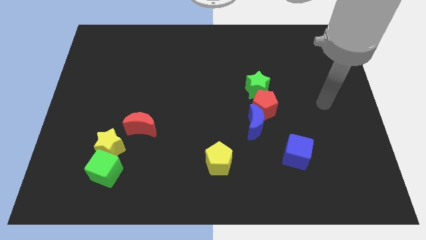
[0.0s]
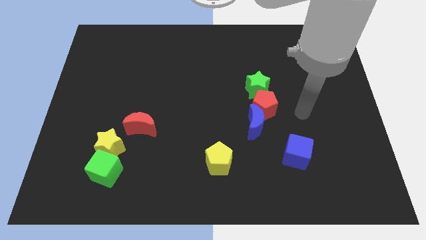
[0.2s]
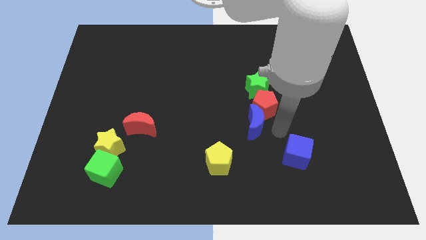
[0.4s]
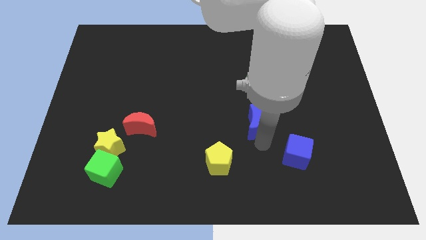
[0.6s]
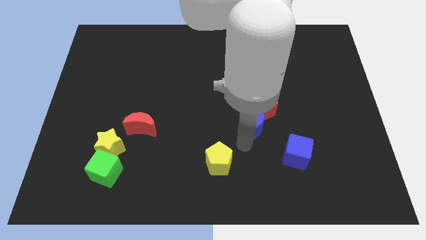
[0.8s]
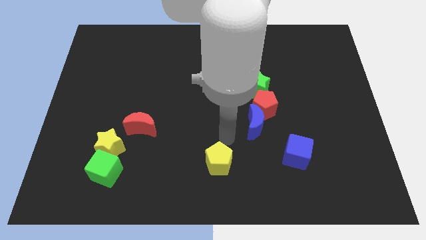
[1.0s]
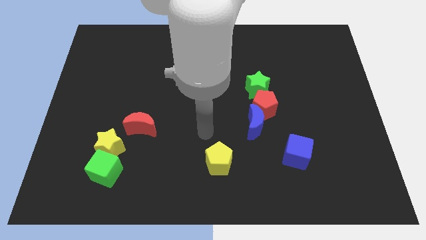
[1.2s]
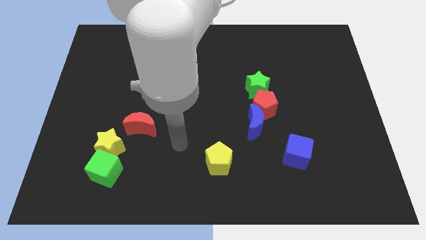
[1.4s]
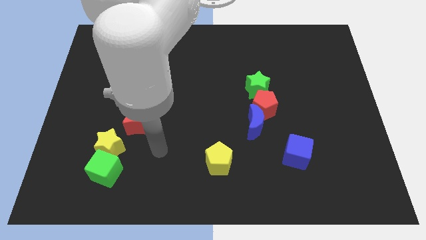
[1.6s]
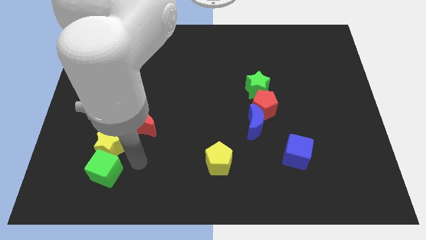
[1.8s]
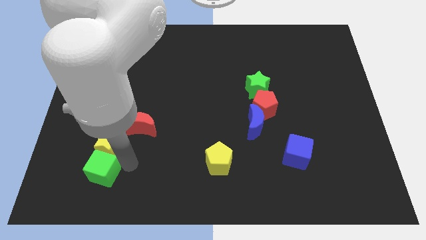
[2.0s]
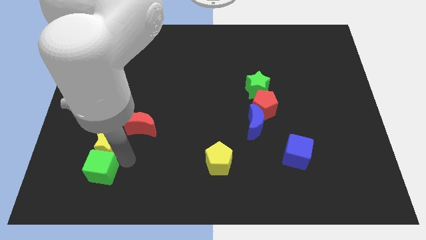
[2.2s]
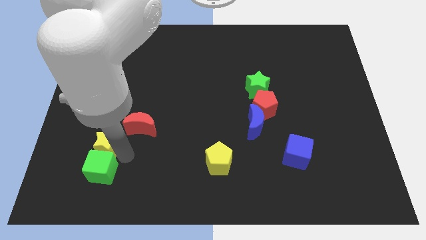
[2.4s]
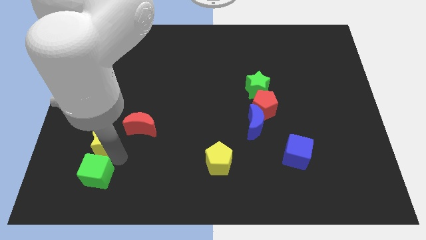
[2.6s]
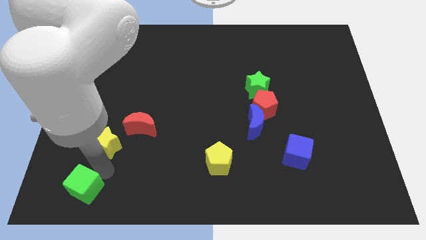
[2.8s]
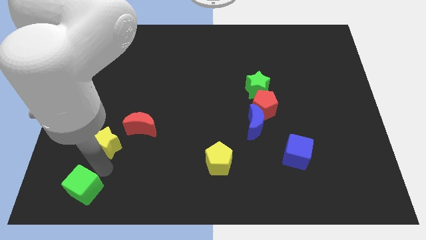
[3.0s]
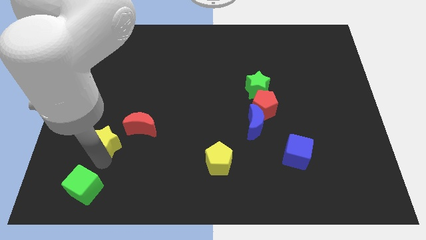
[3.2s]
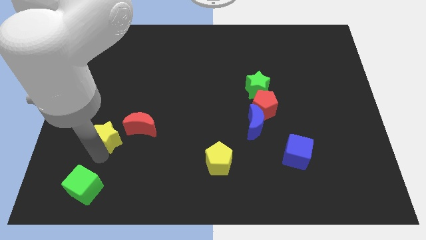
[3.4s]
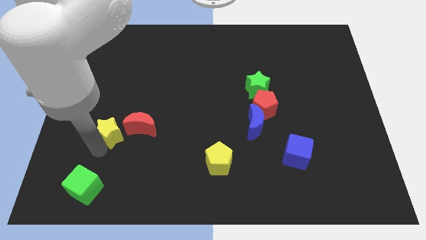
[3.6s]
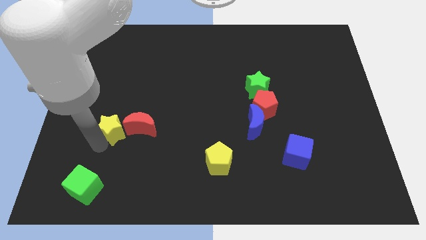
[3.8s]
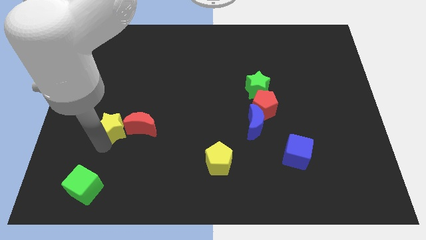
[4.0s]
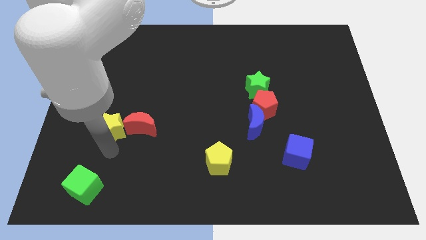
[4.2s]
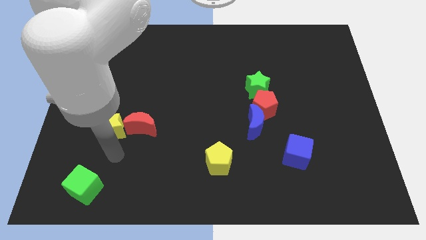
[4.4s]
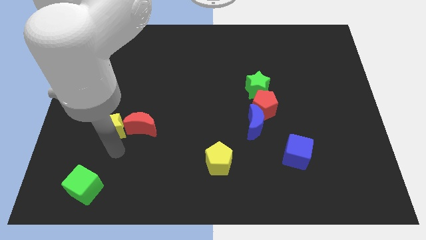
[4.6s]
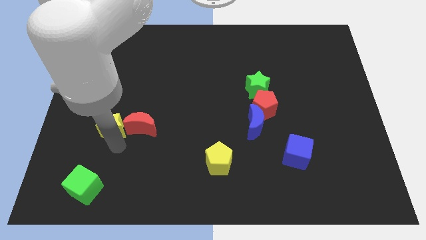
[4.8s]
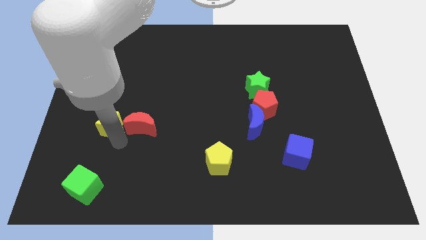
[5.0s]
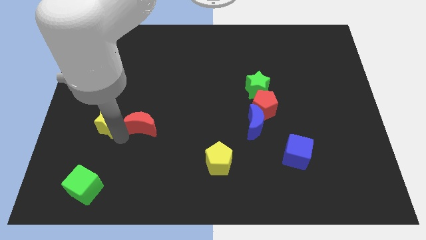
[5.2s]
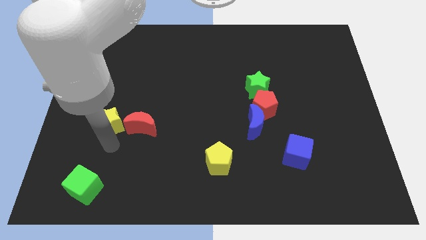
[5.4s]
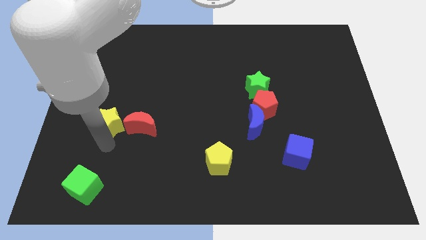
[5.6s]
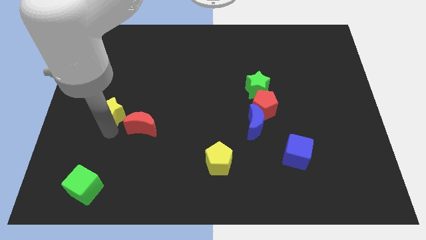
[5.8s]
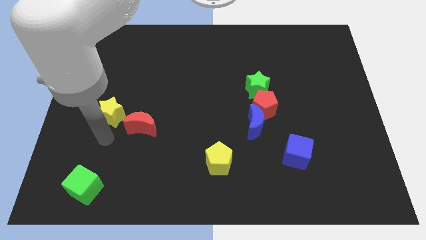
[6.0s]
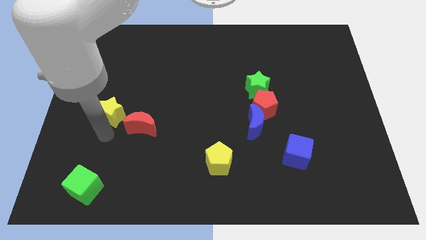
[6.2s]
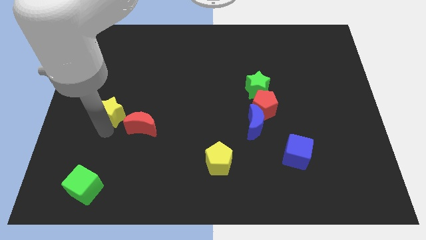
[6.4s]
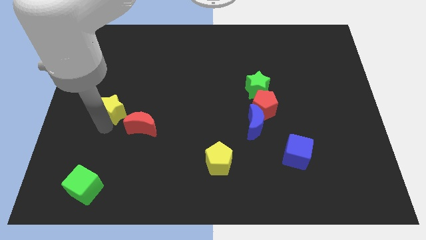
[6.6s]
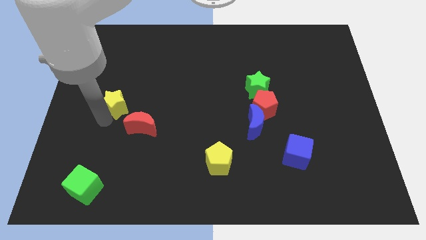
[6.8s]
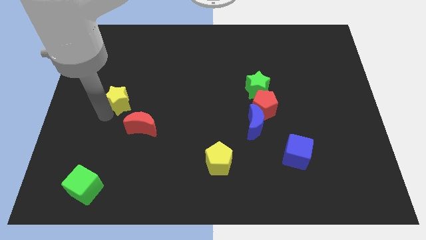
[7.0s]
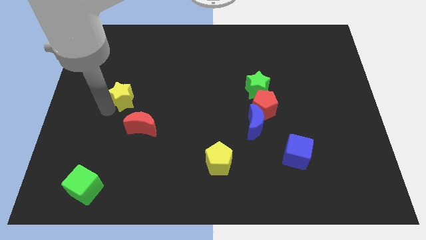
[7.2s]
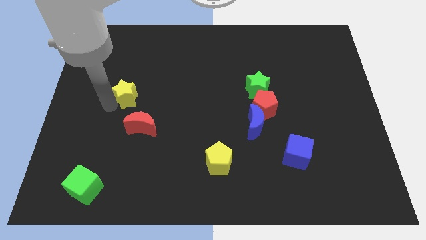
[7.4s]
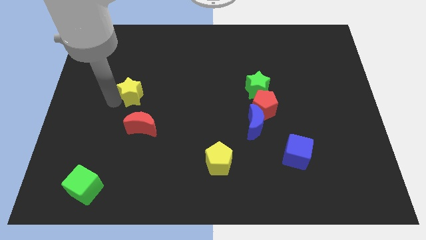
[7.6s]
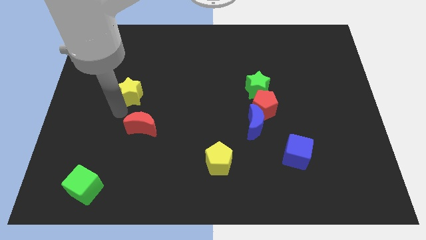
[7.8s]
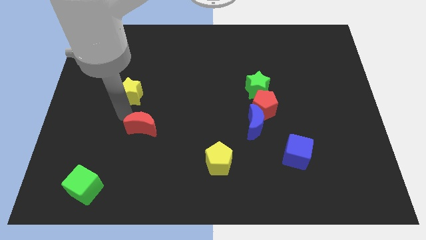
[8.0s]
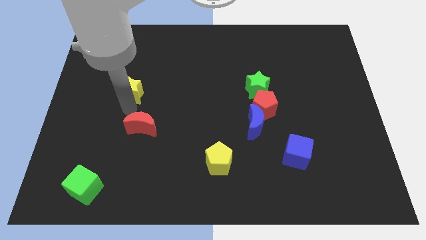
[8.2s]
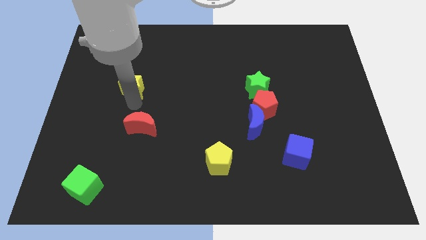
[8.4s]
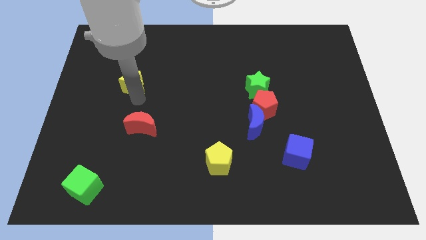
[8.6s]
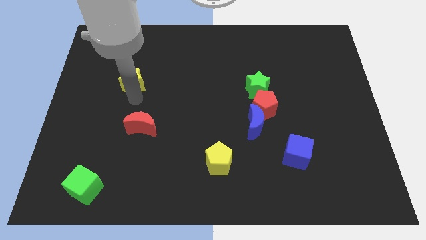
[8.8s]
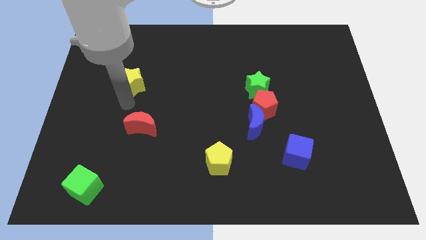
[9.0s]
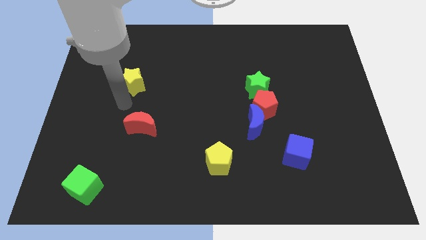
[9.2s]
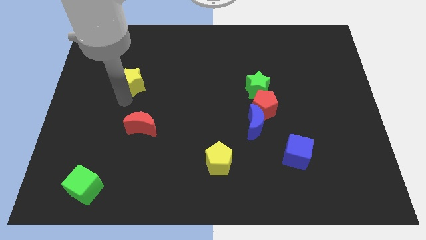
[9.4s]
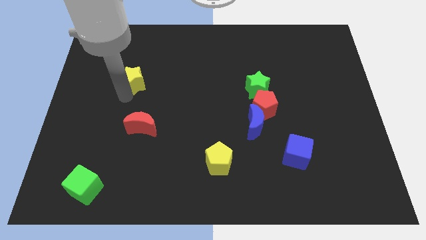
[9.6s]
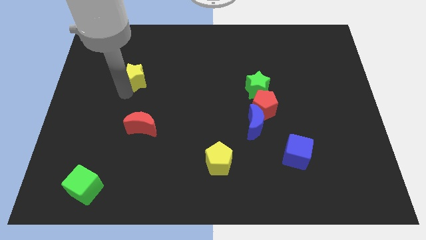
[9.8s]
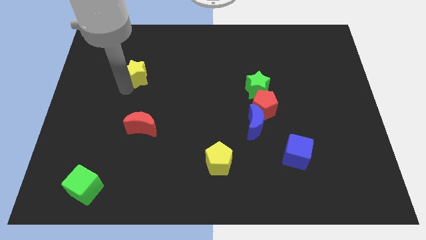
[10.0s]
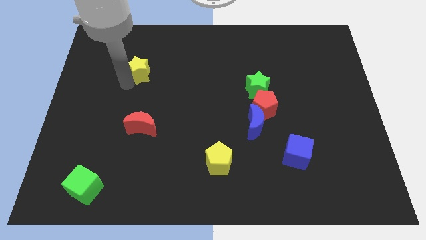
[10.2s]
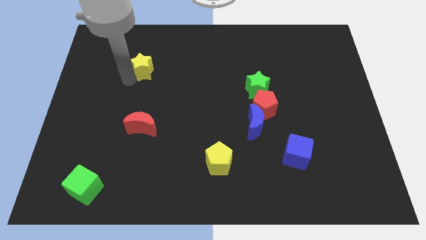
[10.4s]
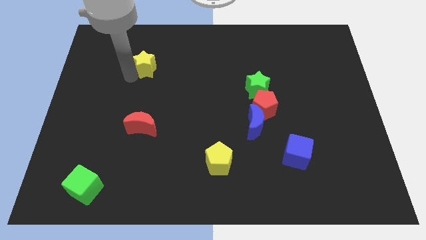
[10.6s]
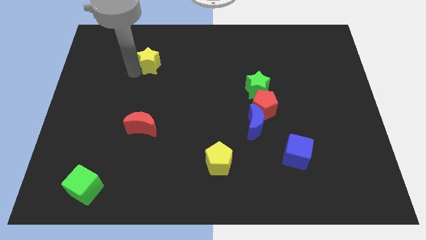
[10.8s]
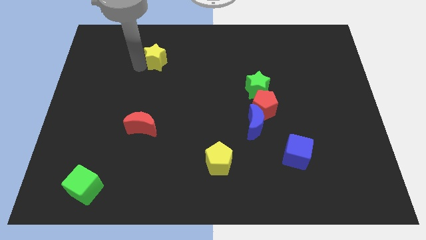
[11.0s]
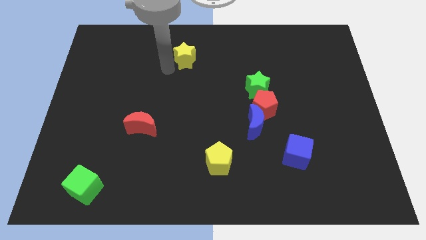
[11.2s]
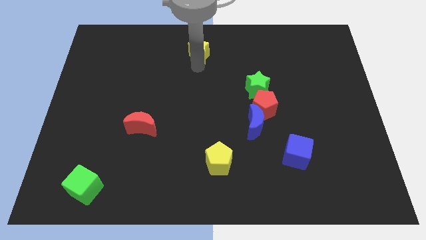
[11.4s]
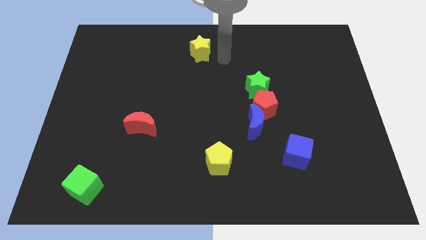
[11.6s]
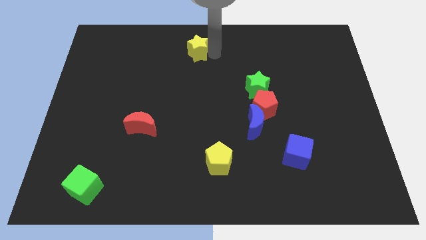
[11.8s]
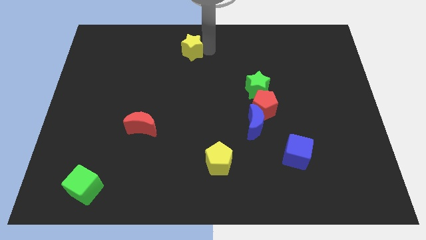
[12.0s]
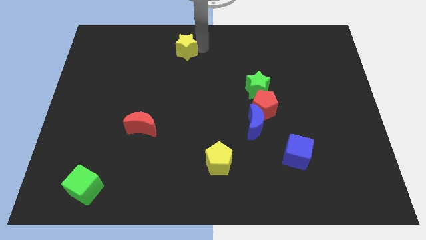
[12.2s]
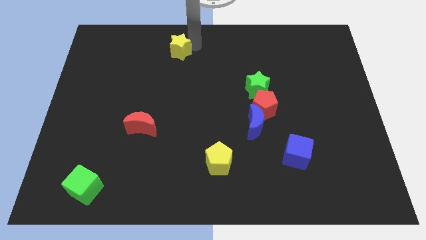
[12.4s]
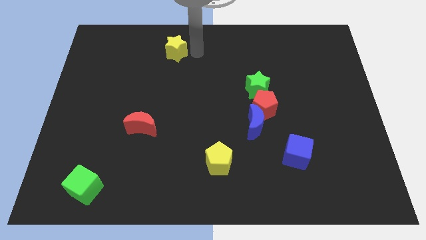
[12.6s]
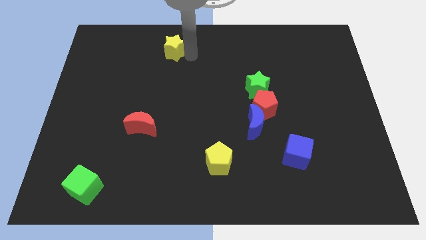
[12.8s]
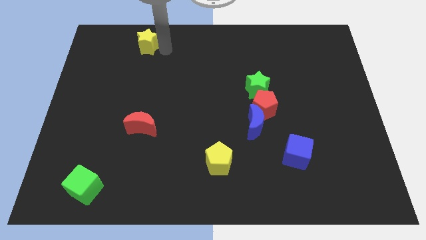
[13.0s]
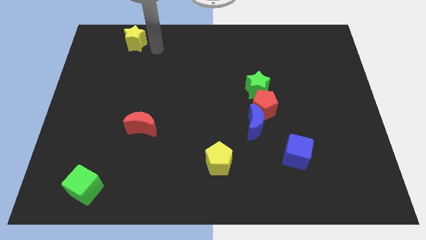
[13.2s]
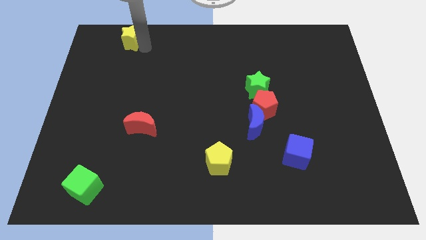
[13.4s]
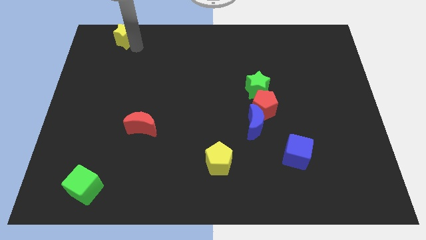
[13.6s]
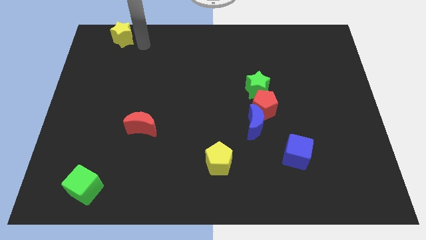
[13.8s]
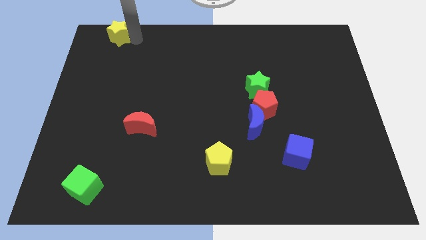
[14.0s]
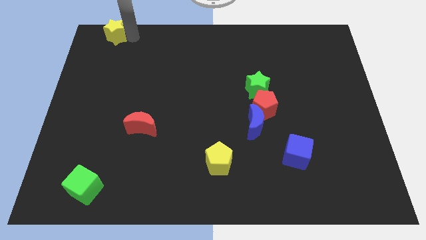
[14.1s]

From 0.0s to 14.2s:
put the yellow star to the top left of the board

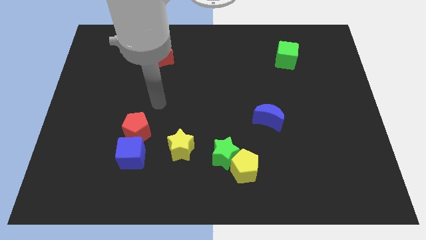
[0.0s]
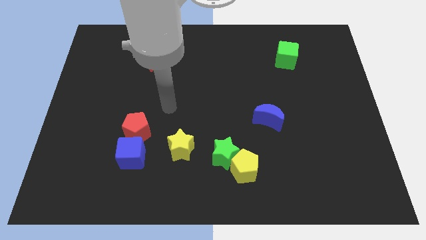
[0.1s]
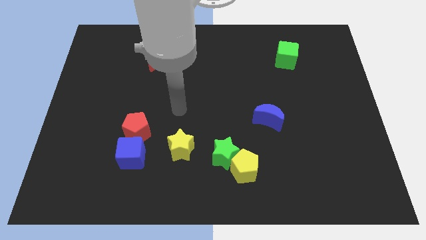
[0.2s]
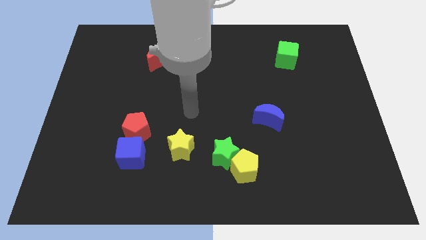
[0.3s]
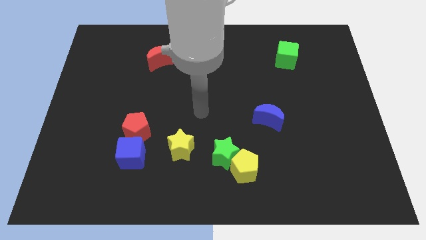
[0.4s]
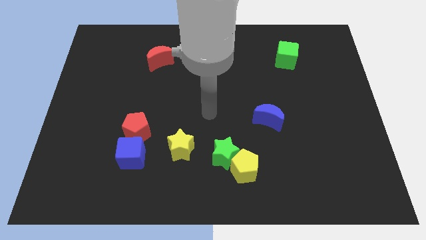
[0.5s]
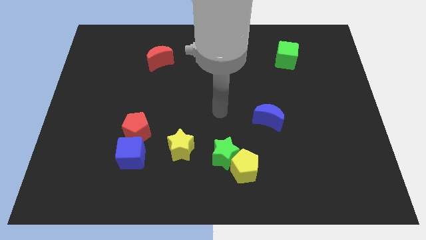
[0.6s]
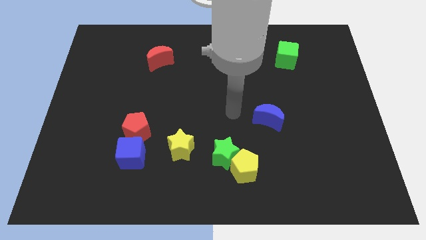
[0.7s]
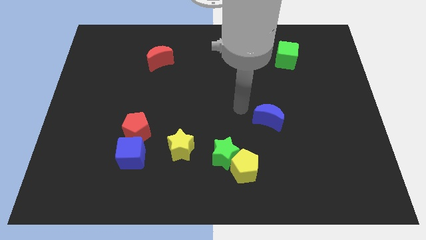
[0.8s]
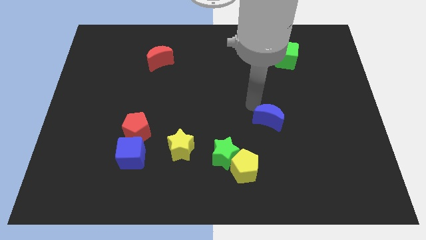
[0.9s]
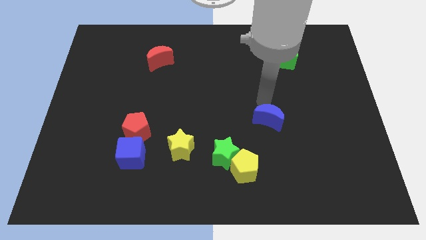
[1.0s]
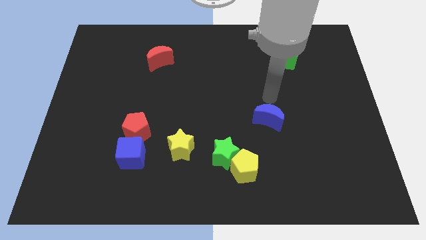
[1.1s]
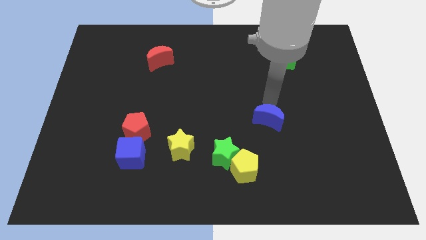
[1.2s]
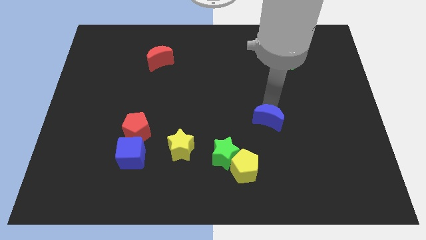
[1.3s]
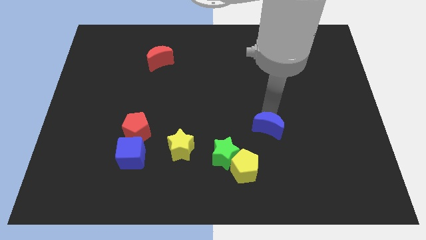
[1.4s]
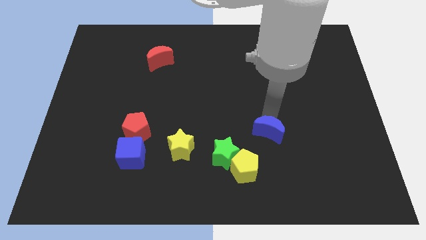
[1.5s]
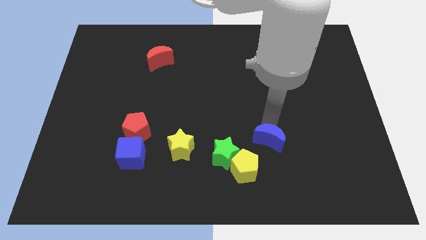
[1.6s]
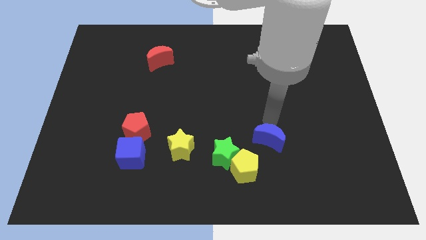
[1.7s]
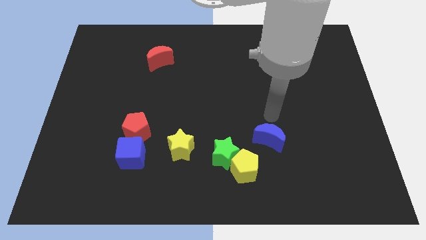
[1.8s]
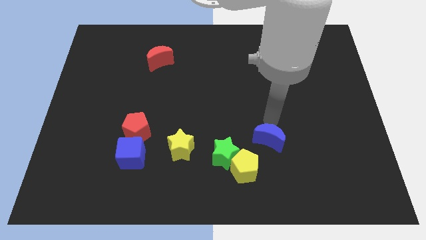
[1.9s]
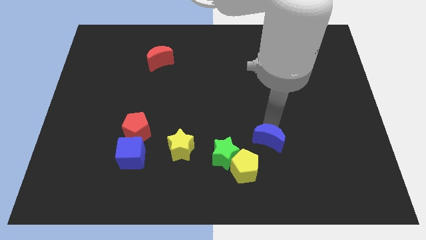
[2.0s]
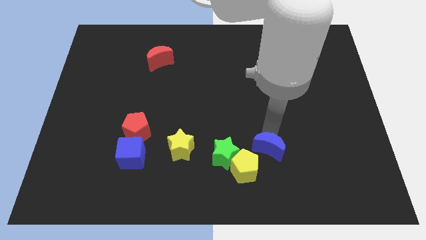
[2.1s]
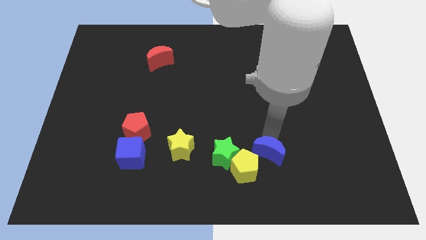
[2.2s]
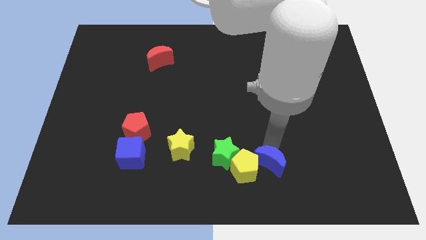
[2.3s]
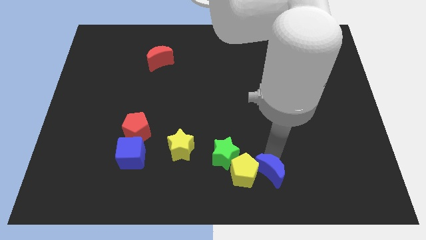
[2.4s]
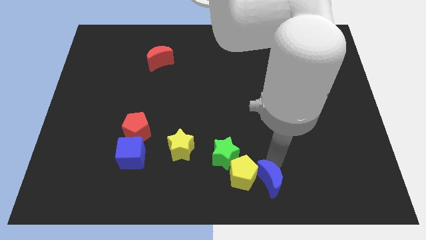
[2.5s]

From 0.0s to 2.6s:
slide the blue moon to the bottom
